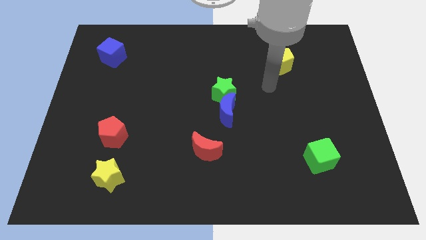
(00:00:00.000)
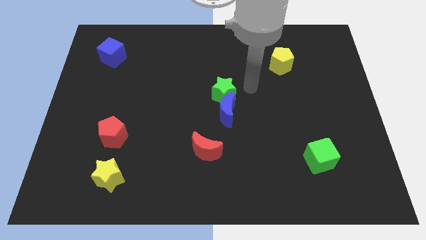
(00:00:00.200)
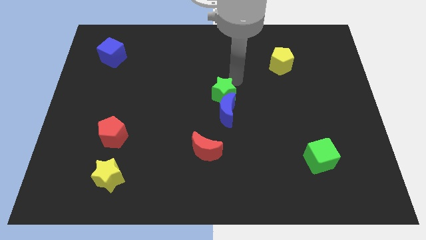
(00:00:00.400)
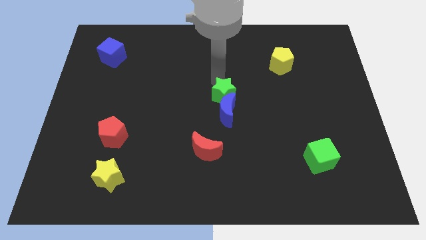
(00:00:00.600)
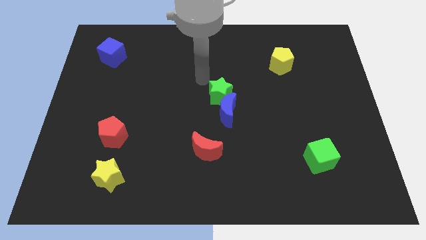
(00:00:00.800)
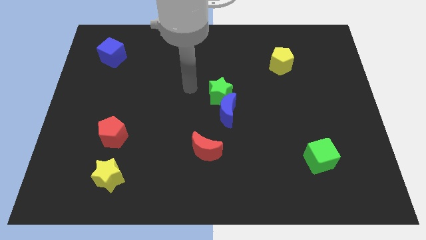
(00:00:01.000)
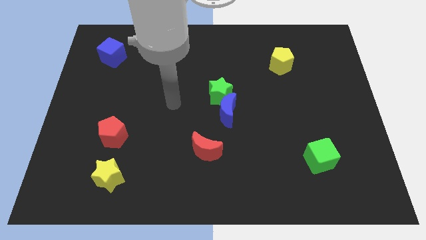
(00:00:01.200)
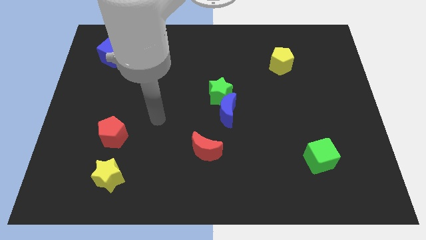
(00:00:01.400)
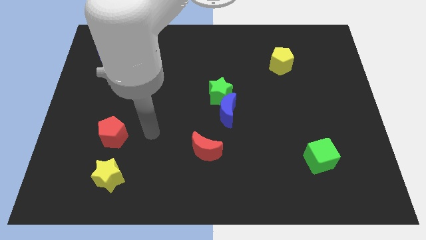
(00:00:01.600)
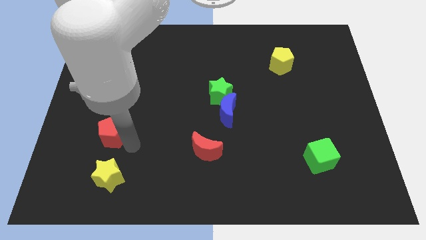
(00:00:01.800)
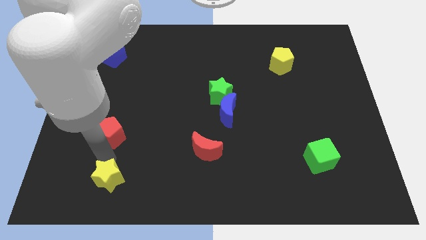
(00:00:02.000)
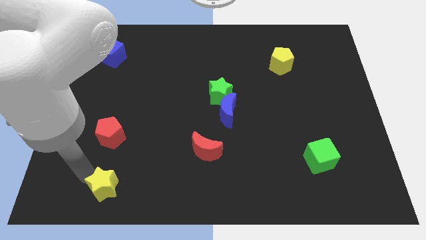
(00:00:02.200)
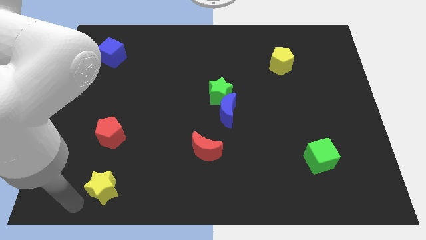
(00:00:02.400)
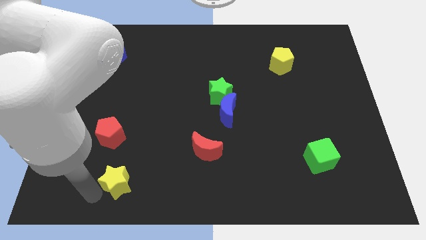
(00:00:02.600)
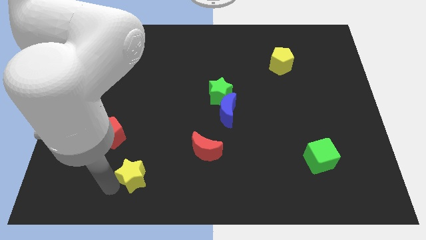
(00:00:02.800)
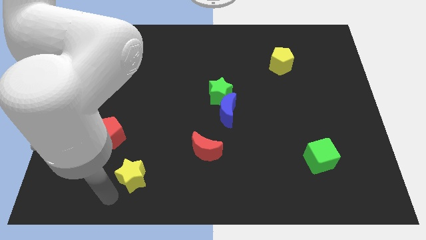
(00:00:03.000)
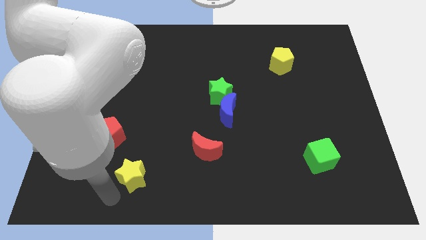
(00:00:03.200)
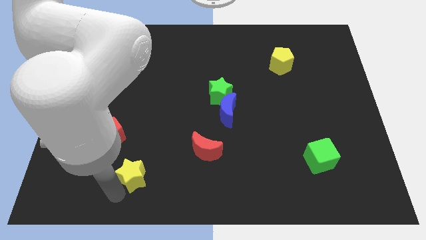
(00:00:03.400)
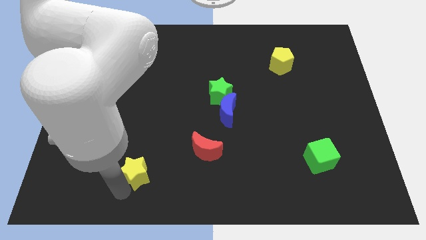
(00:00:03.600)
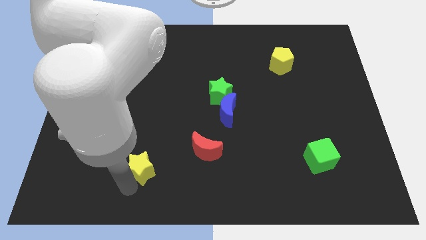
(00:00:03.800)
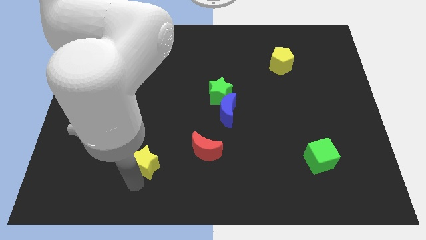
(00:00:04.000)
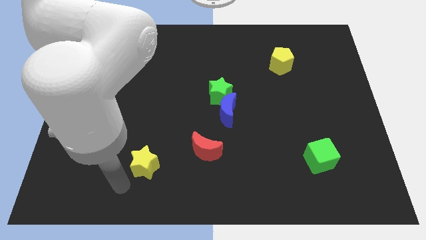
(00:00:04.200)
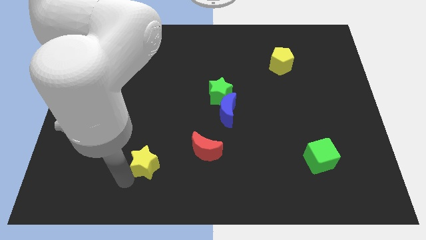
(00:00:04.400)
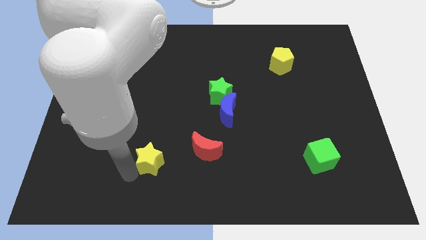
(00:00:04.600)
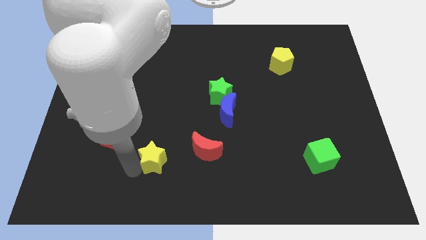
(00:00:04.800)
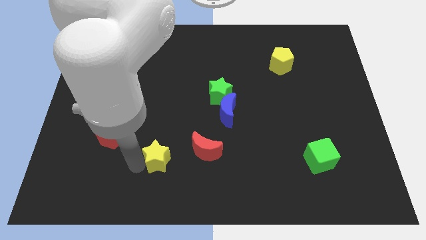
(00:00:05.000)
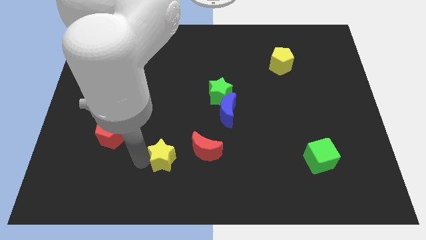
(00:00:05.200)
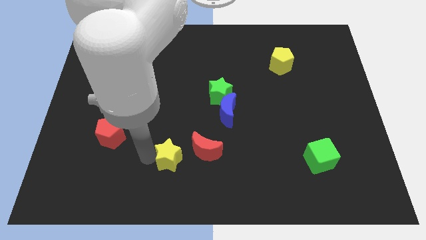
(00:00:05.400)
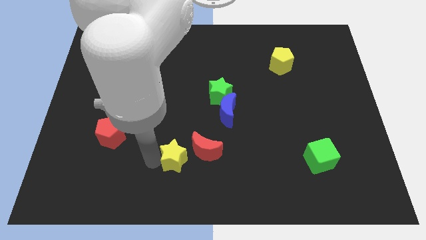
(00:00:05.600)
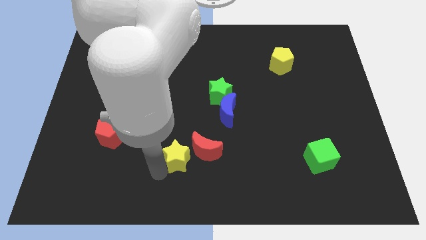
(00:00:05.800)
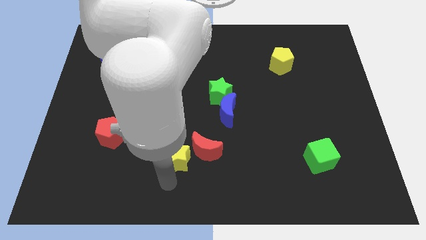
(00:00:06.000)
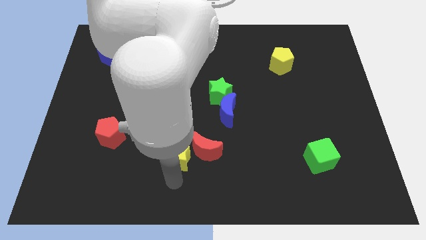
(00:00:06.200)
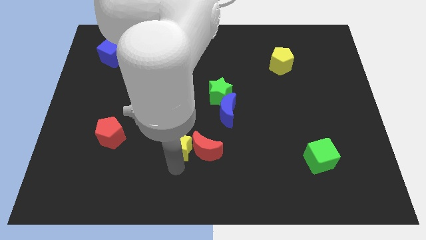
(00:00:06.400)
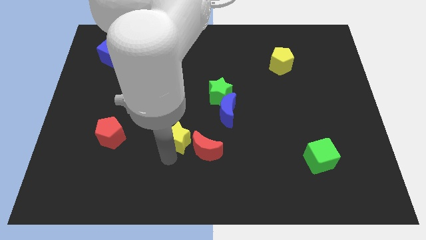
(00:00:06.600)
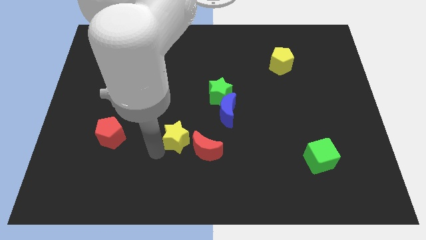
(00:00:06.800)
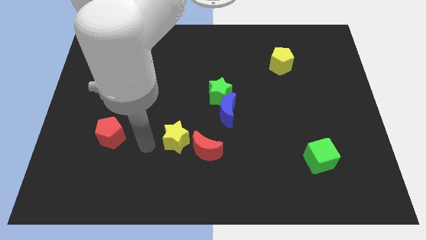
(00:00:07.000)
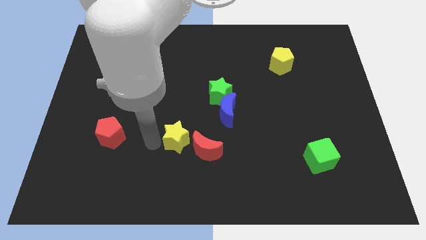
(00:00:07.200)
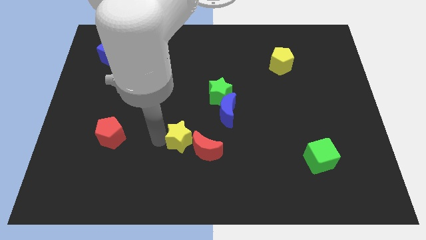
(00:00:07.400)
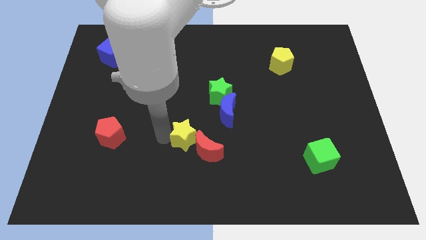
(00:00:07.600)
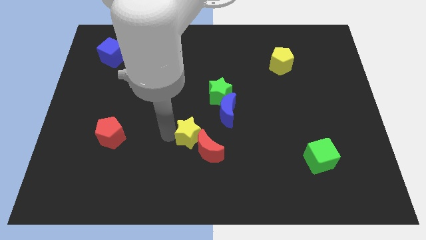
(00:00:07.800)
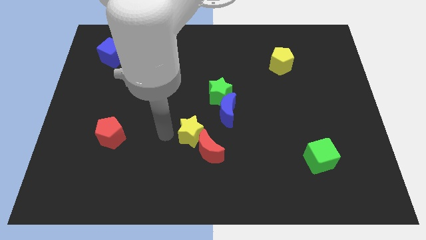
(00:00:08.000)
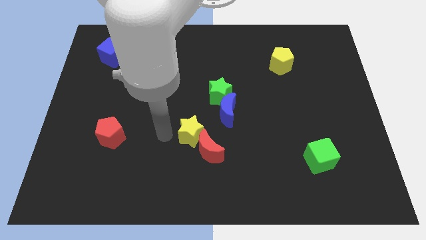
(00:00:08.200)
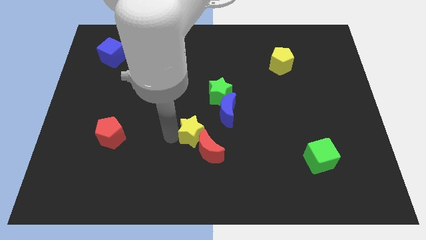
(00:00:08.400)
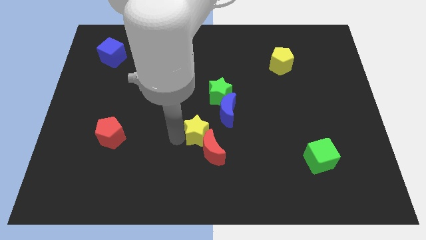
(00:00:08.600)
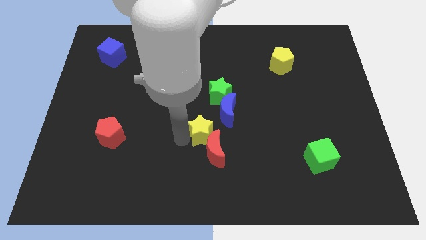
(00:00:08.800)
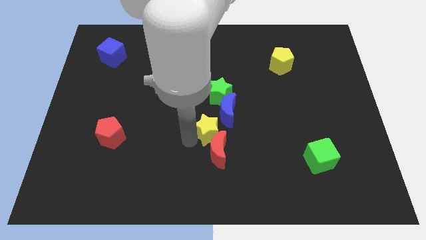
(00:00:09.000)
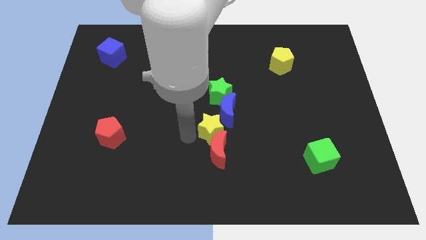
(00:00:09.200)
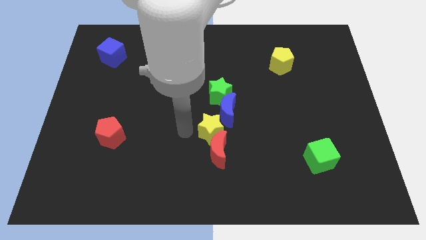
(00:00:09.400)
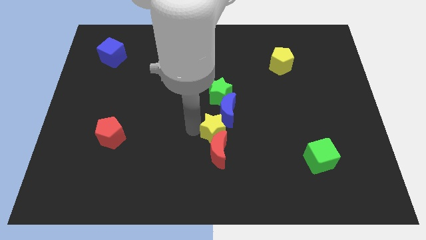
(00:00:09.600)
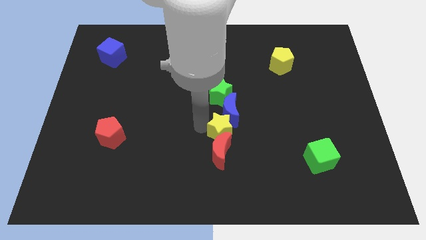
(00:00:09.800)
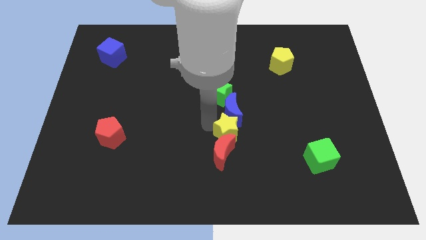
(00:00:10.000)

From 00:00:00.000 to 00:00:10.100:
slide the yellow star to the bottom right side of the blue moon

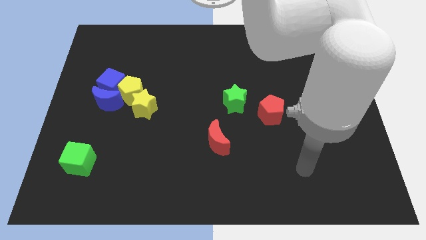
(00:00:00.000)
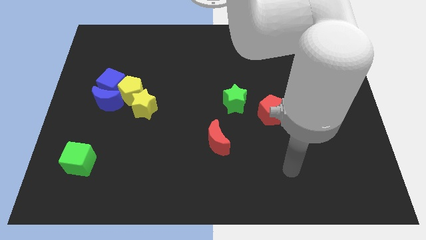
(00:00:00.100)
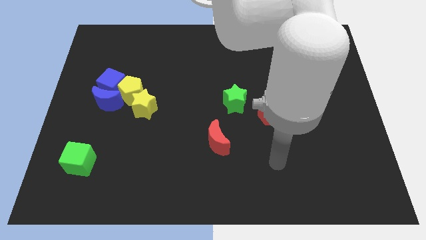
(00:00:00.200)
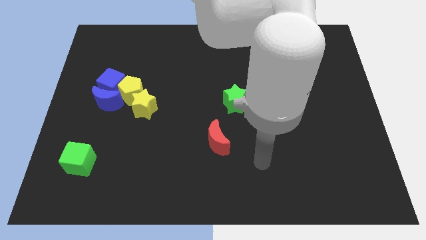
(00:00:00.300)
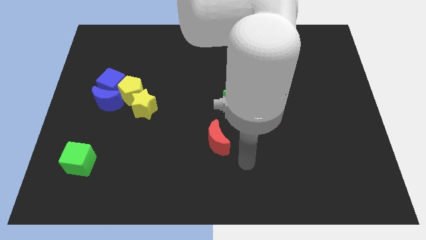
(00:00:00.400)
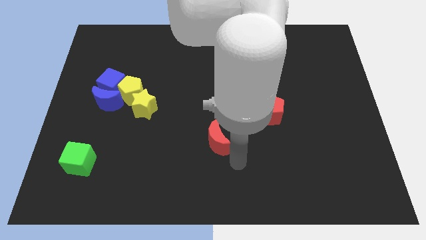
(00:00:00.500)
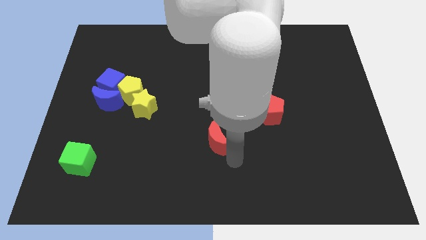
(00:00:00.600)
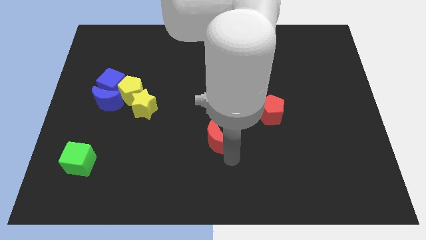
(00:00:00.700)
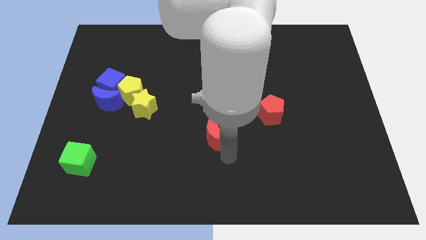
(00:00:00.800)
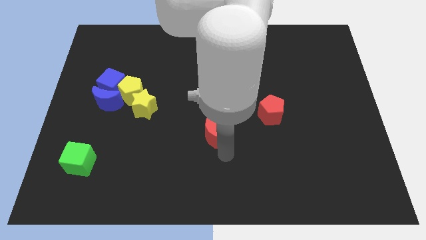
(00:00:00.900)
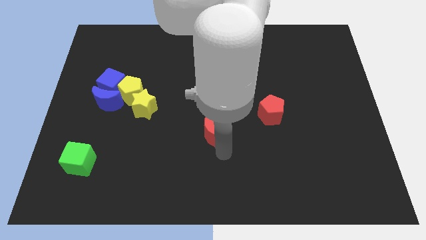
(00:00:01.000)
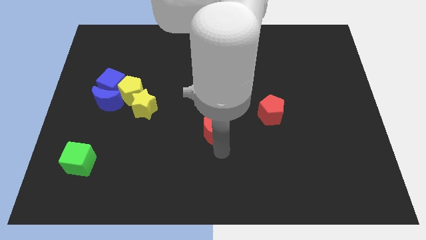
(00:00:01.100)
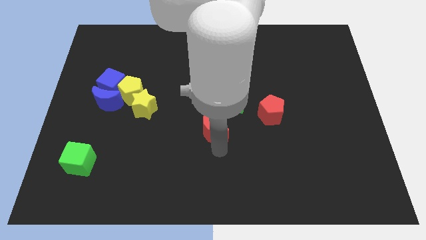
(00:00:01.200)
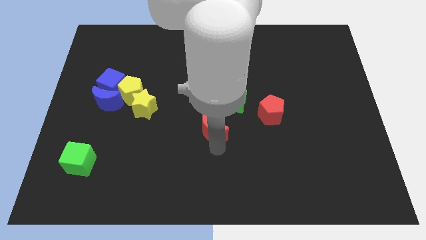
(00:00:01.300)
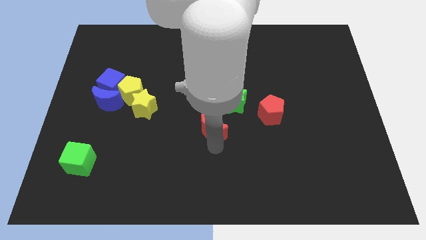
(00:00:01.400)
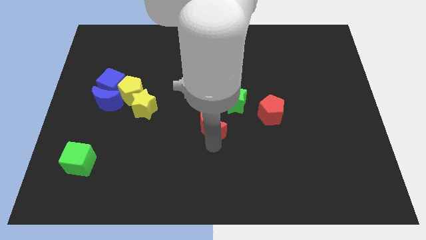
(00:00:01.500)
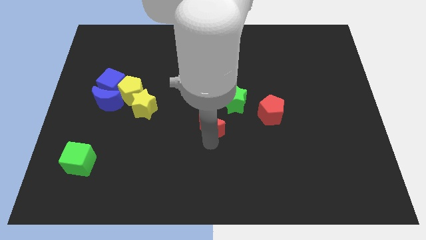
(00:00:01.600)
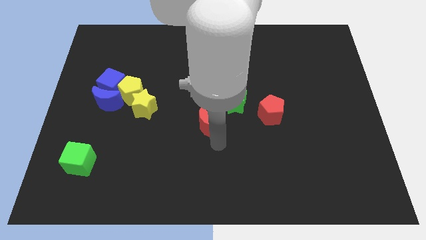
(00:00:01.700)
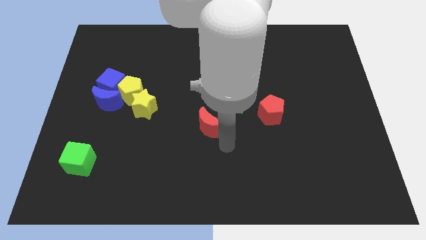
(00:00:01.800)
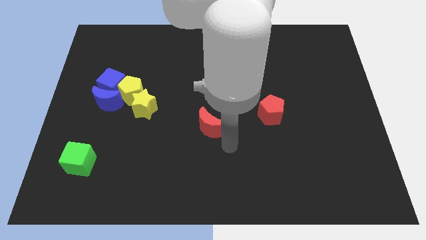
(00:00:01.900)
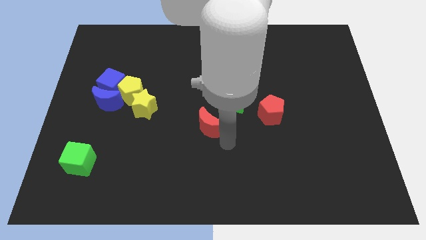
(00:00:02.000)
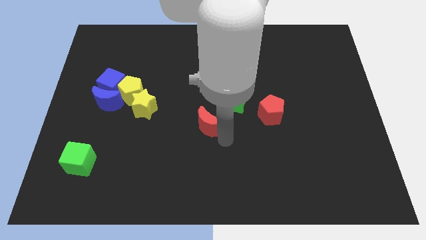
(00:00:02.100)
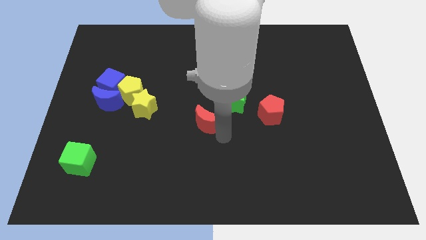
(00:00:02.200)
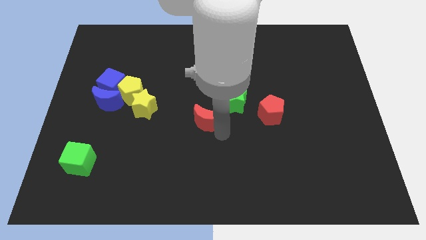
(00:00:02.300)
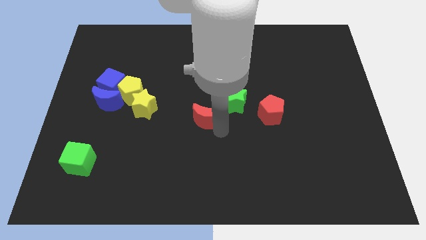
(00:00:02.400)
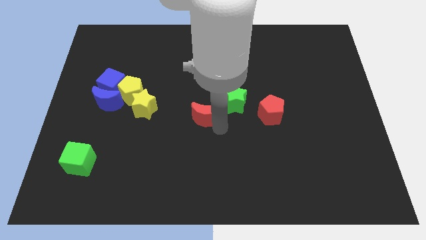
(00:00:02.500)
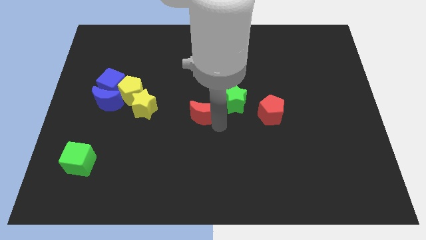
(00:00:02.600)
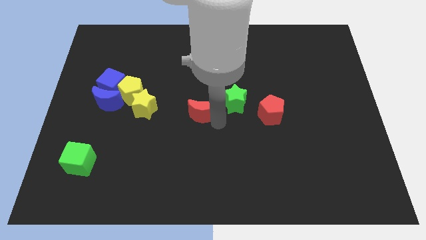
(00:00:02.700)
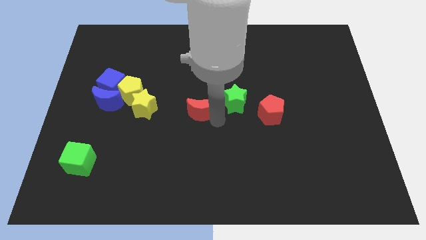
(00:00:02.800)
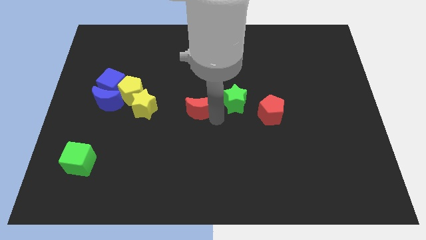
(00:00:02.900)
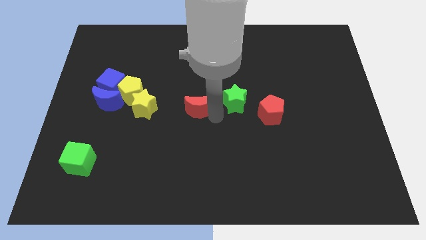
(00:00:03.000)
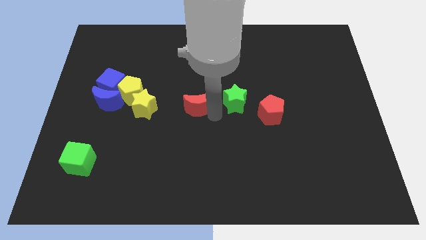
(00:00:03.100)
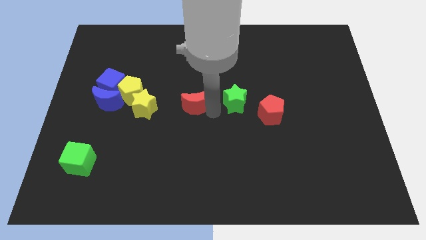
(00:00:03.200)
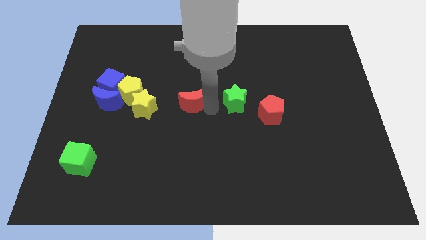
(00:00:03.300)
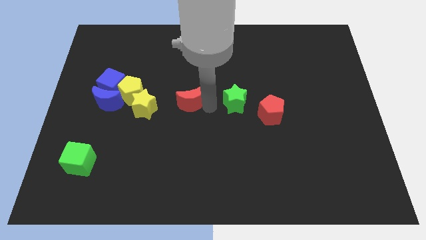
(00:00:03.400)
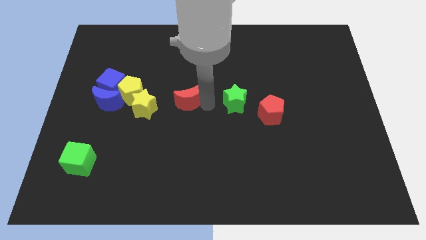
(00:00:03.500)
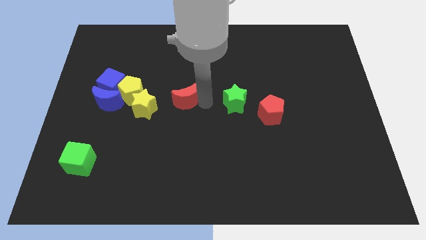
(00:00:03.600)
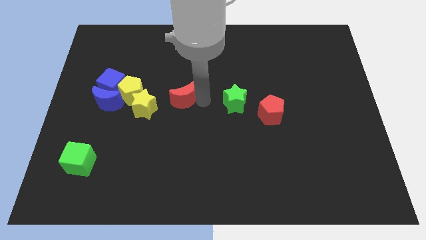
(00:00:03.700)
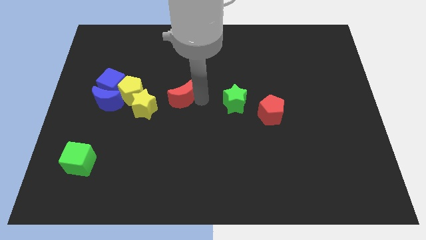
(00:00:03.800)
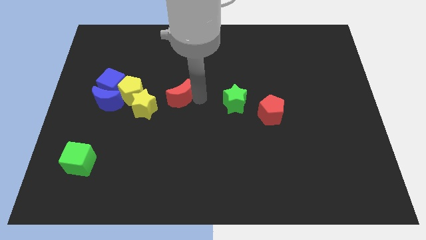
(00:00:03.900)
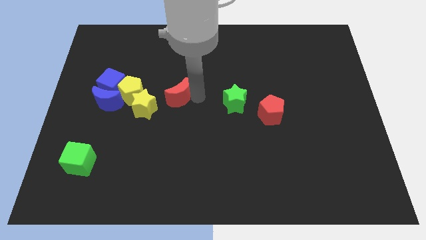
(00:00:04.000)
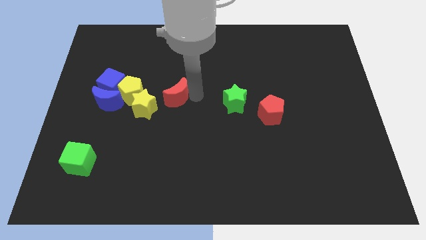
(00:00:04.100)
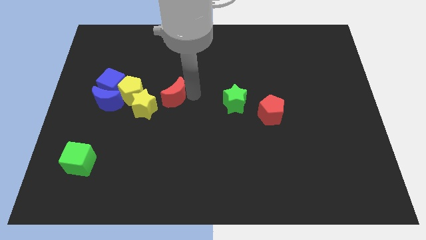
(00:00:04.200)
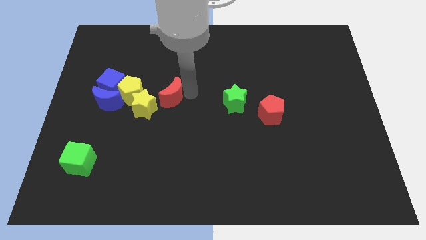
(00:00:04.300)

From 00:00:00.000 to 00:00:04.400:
put the red moon just right of the blue cube
